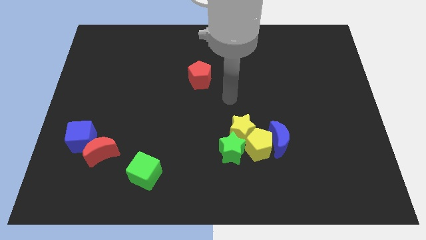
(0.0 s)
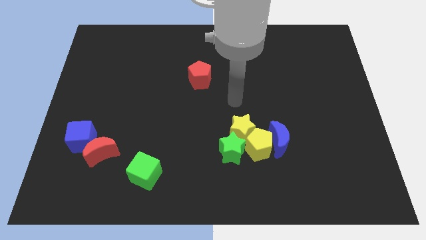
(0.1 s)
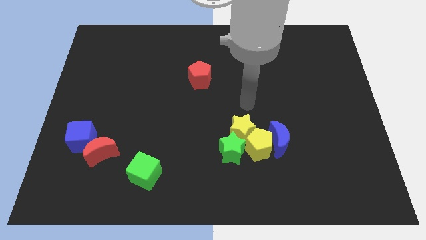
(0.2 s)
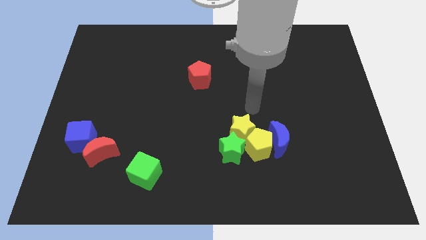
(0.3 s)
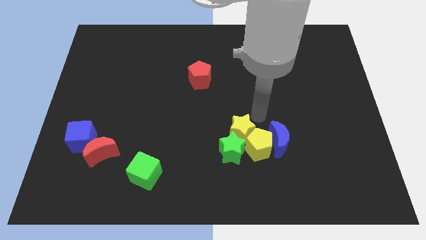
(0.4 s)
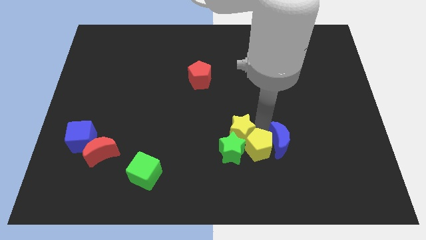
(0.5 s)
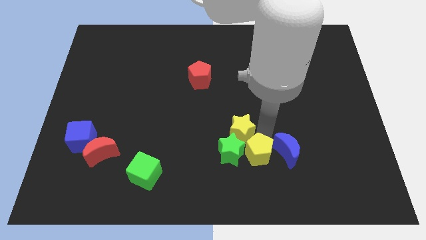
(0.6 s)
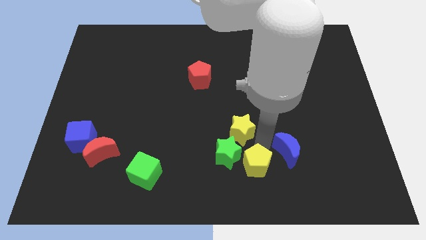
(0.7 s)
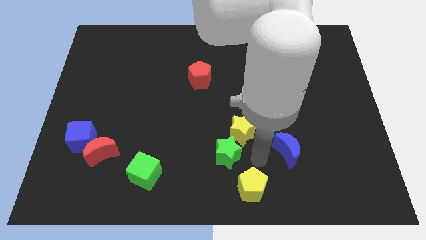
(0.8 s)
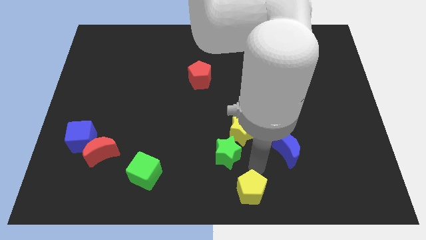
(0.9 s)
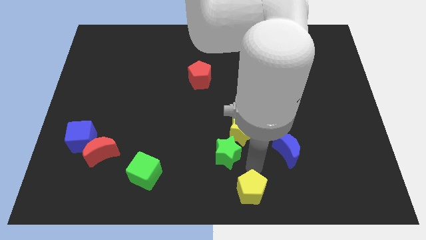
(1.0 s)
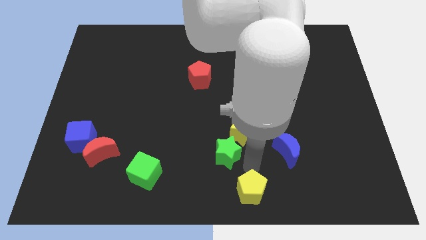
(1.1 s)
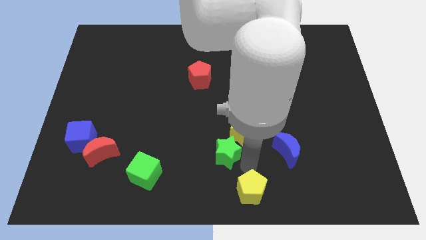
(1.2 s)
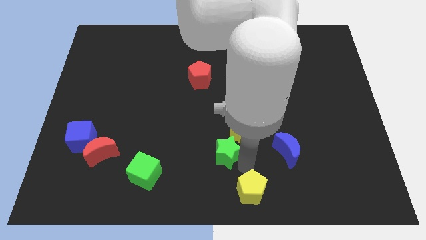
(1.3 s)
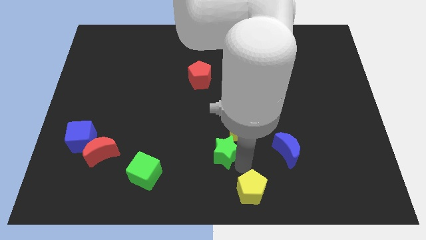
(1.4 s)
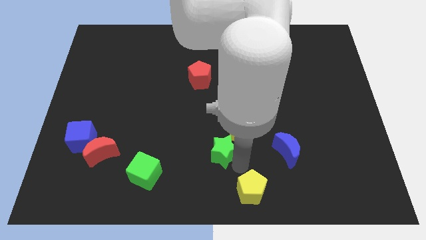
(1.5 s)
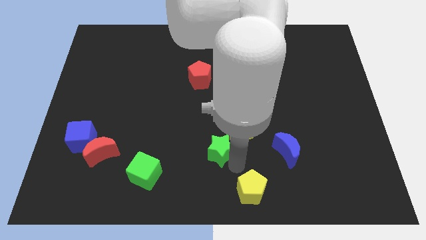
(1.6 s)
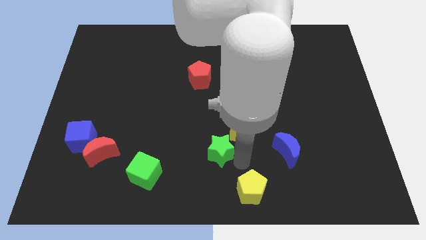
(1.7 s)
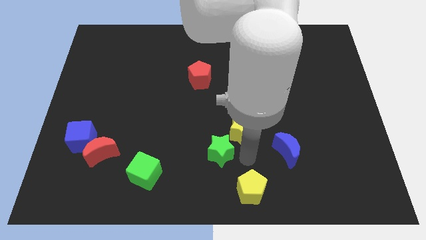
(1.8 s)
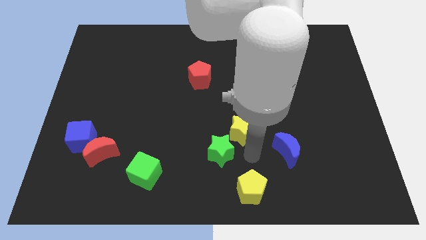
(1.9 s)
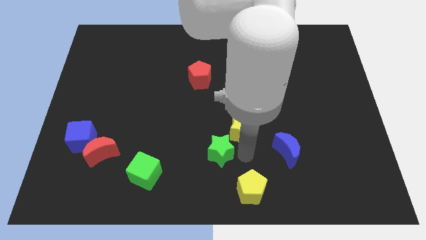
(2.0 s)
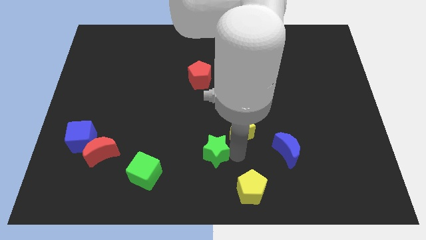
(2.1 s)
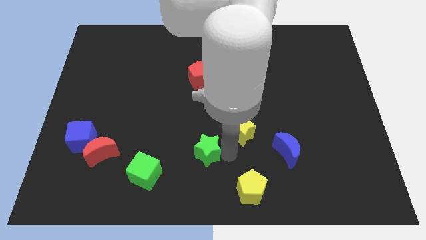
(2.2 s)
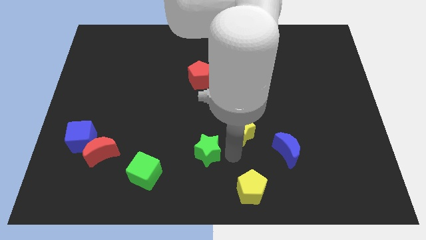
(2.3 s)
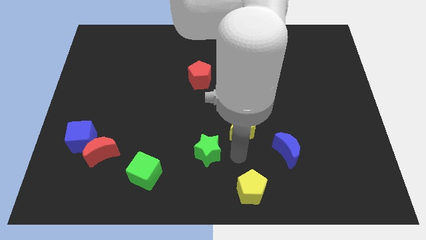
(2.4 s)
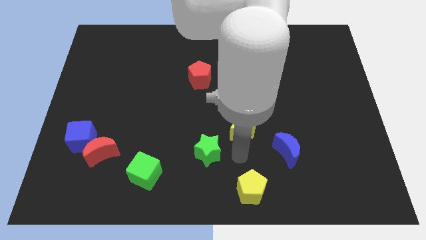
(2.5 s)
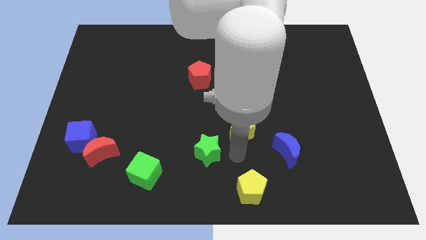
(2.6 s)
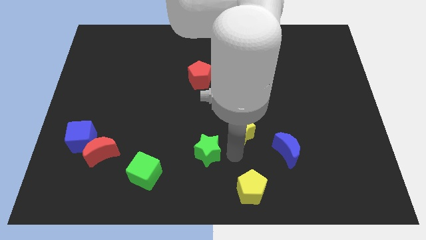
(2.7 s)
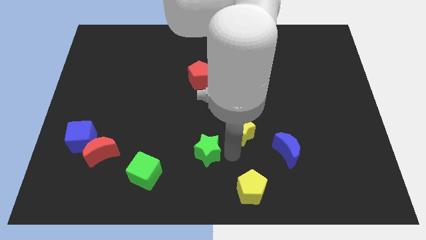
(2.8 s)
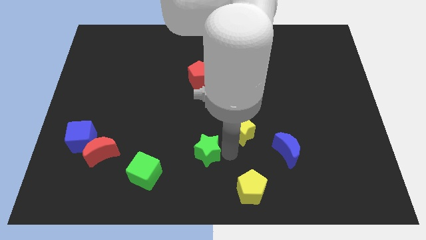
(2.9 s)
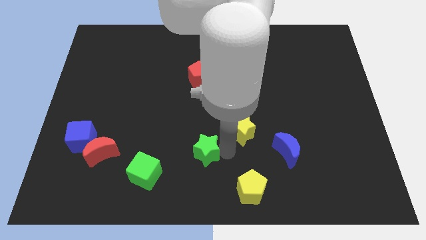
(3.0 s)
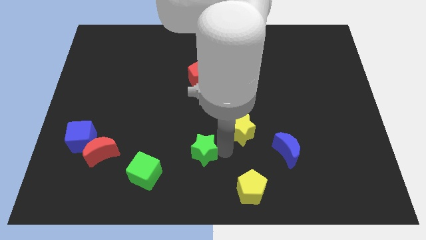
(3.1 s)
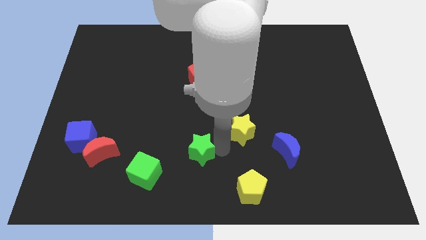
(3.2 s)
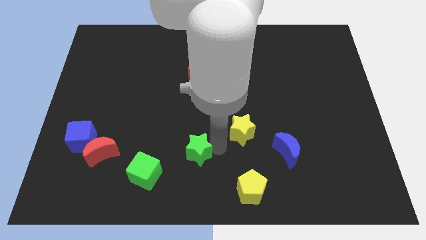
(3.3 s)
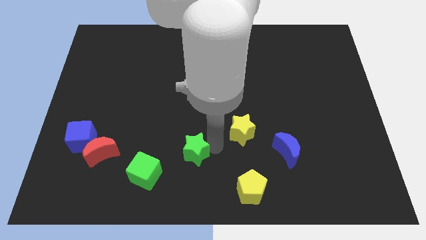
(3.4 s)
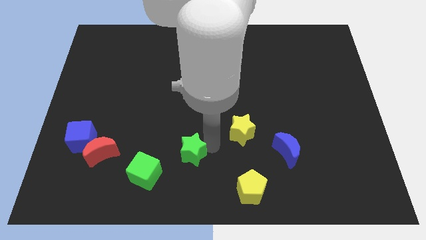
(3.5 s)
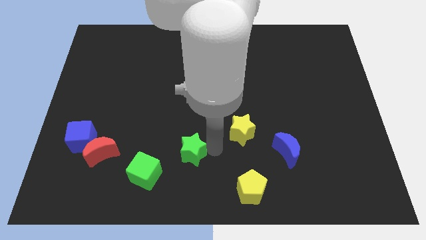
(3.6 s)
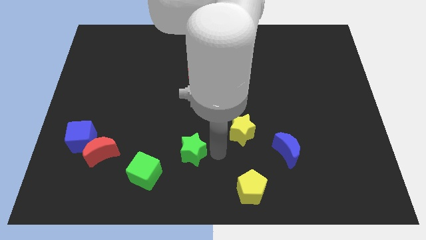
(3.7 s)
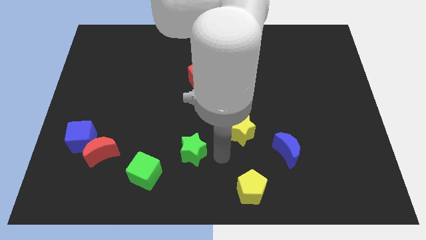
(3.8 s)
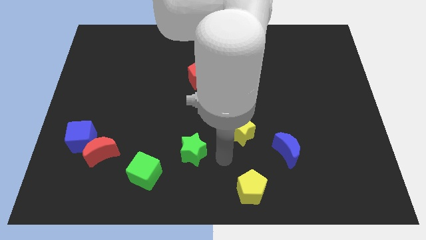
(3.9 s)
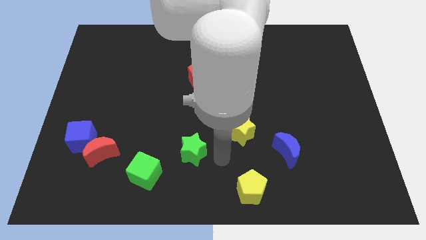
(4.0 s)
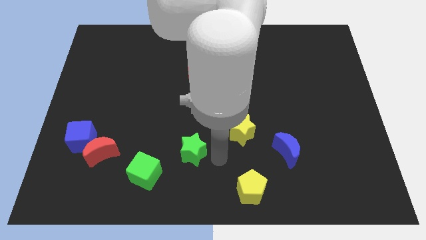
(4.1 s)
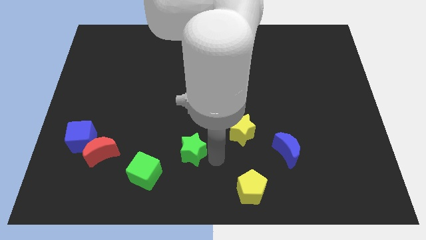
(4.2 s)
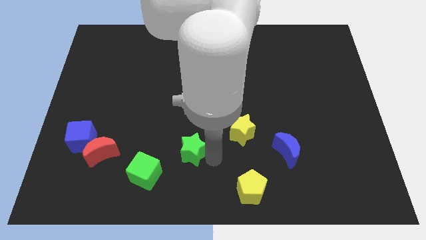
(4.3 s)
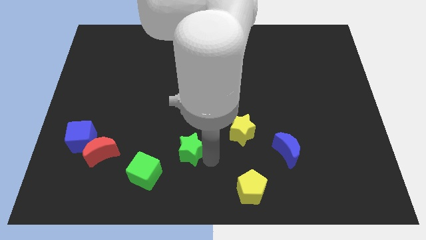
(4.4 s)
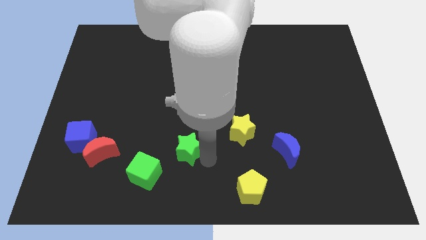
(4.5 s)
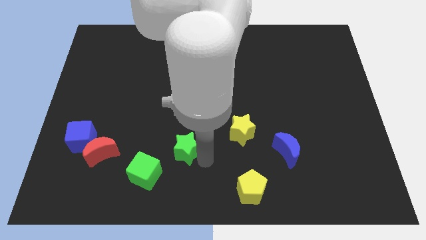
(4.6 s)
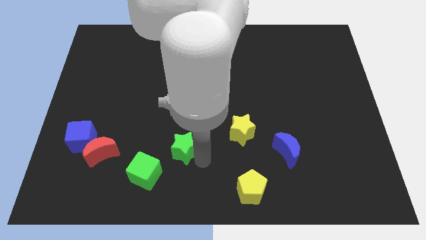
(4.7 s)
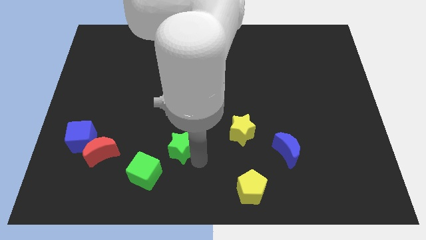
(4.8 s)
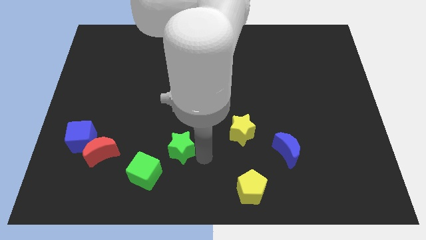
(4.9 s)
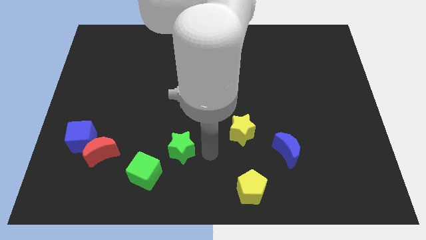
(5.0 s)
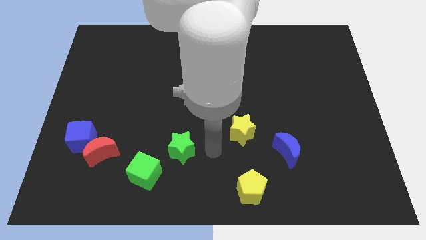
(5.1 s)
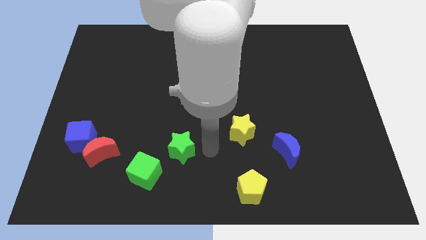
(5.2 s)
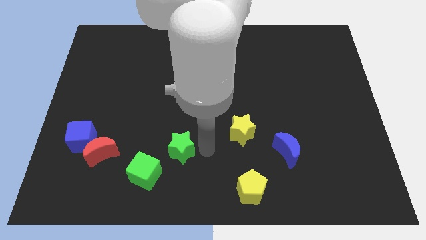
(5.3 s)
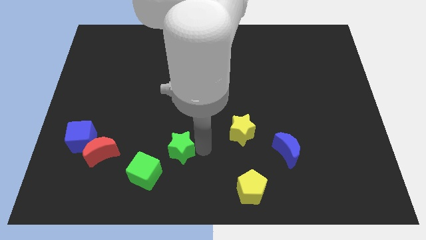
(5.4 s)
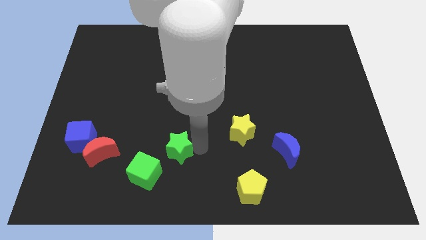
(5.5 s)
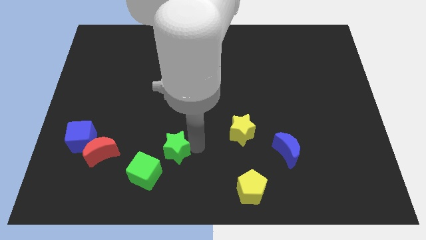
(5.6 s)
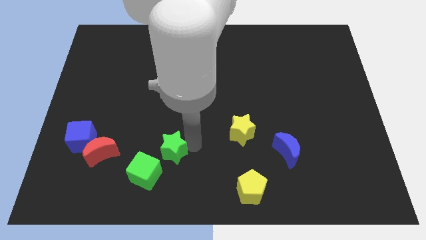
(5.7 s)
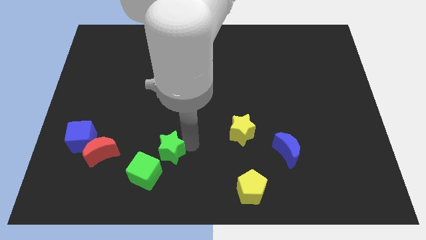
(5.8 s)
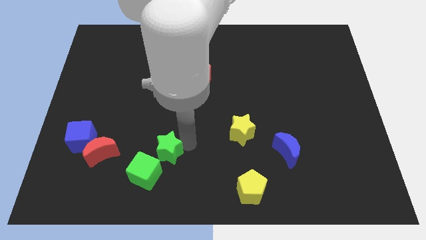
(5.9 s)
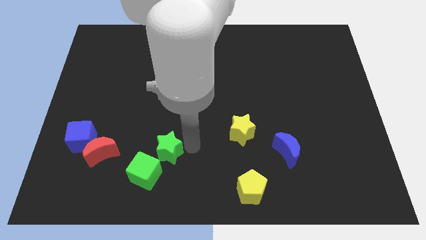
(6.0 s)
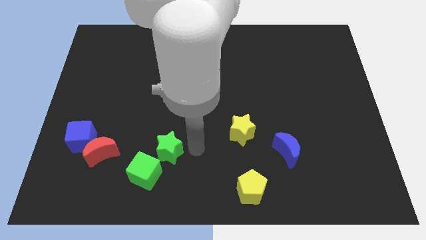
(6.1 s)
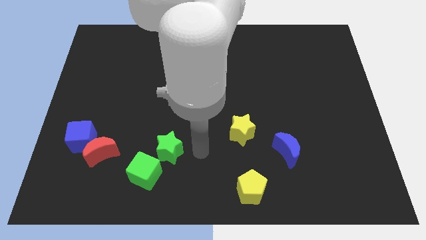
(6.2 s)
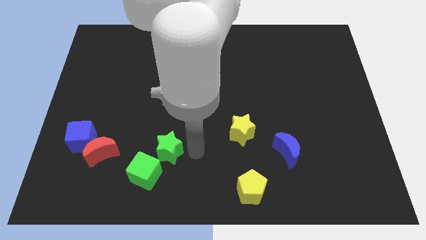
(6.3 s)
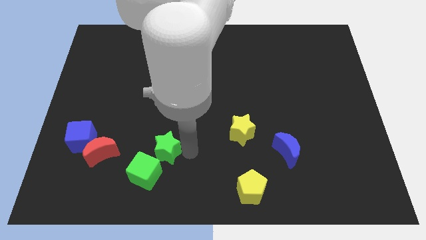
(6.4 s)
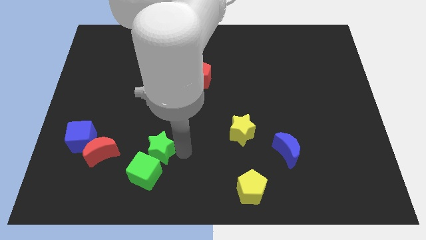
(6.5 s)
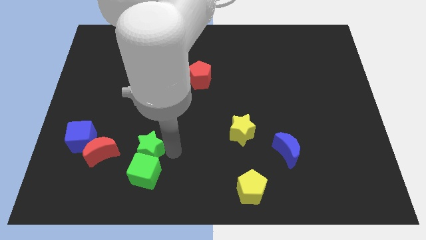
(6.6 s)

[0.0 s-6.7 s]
push the green star to the top left of the green cube
